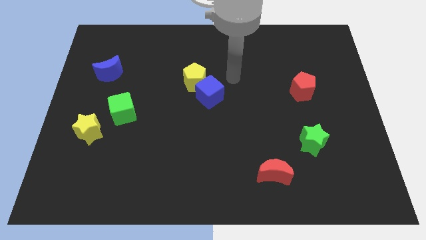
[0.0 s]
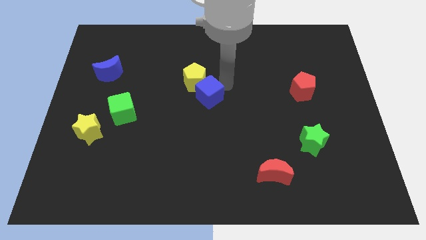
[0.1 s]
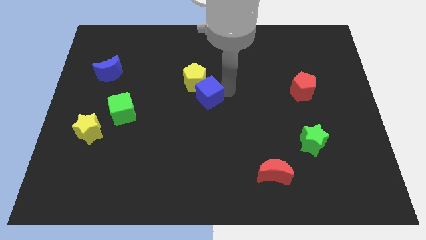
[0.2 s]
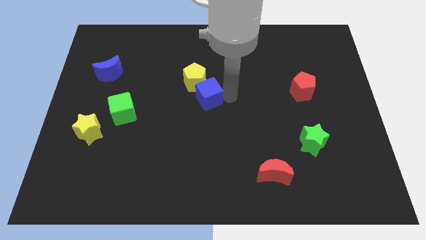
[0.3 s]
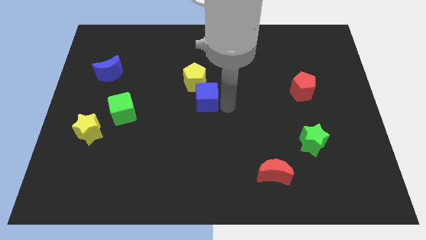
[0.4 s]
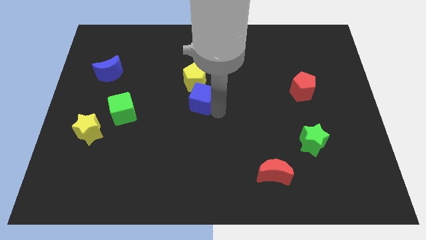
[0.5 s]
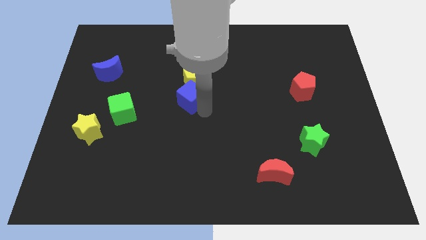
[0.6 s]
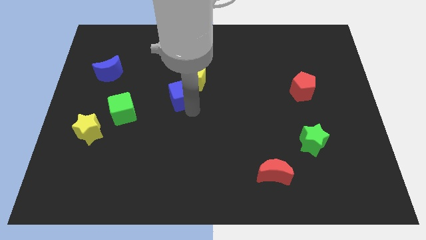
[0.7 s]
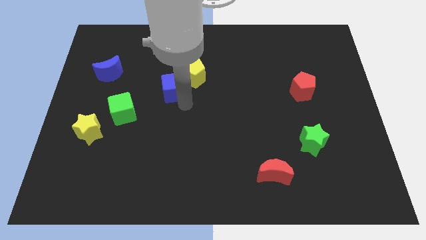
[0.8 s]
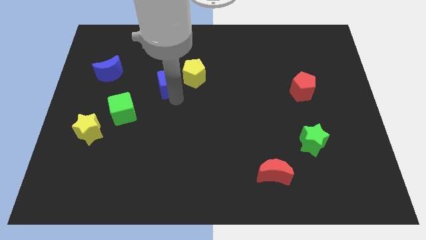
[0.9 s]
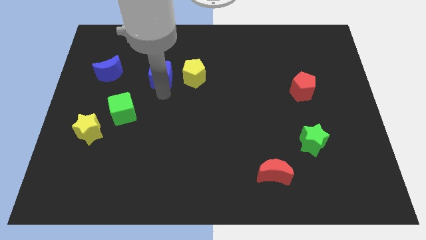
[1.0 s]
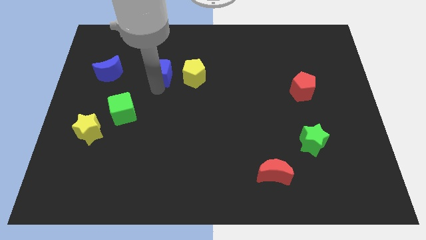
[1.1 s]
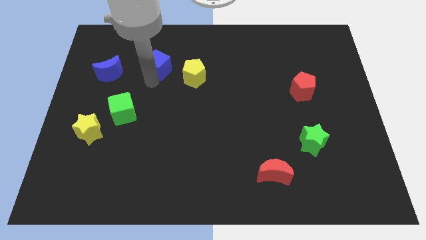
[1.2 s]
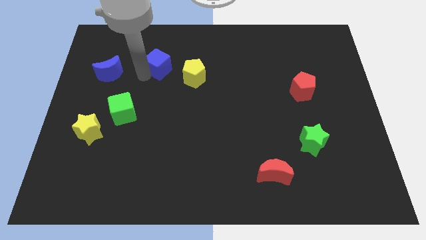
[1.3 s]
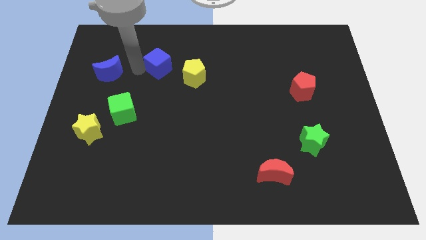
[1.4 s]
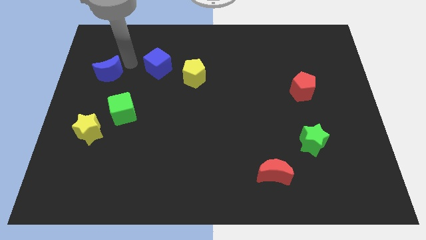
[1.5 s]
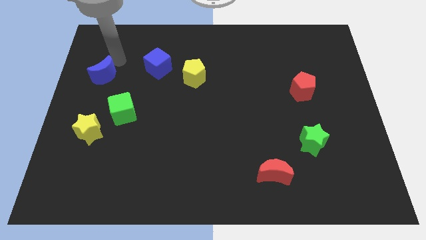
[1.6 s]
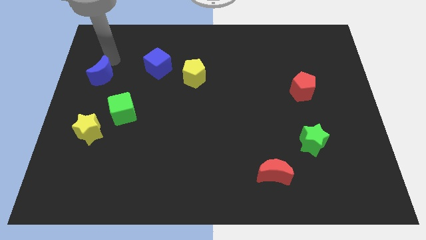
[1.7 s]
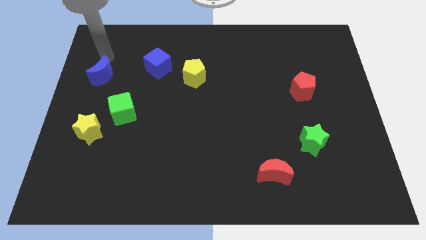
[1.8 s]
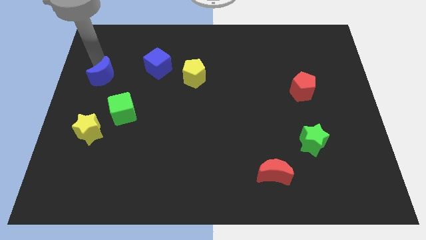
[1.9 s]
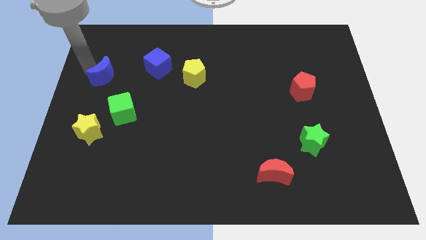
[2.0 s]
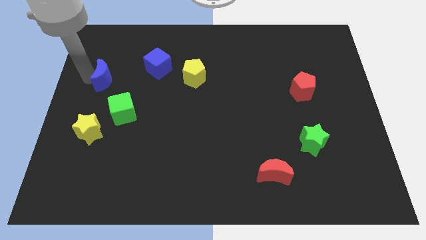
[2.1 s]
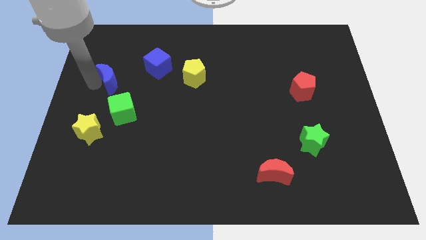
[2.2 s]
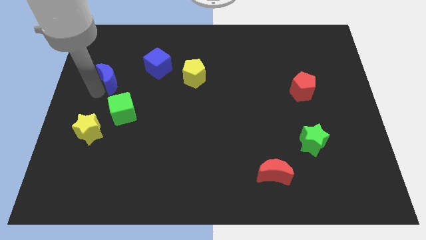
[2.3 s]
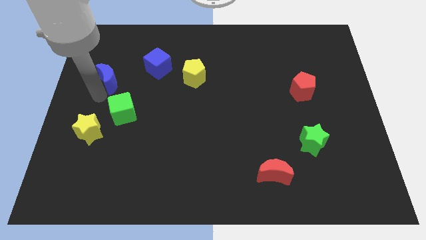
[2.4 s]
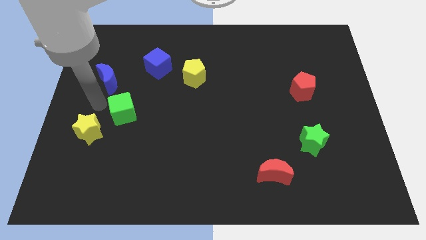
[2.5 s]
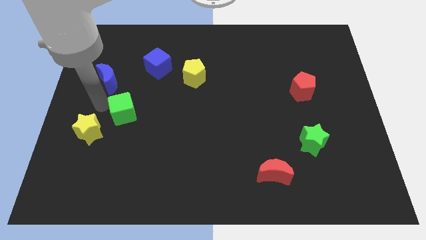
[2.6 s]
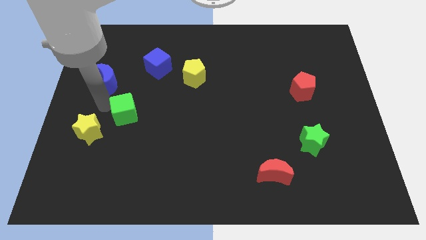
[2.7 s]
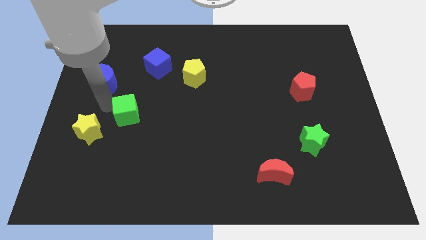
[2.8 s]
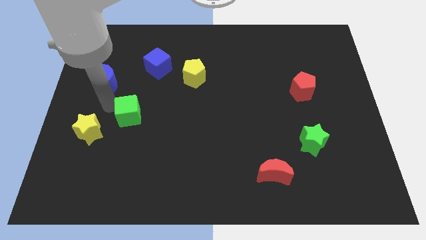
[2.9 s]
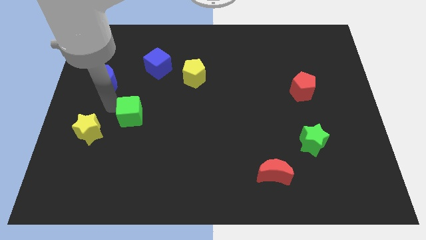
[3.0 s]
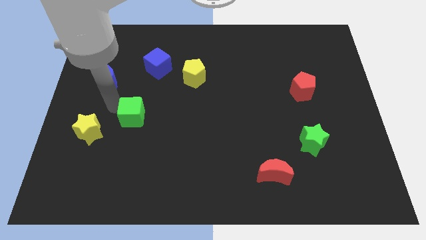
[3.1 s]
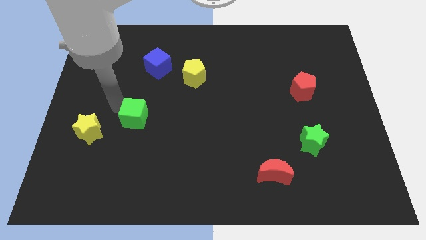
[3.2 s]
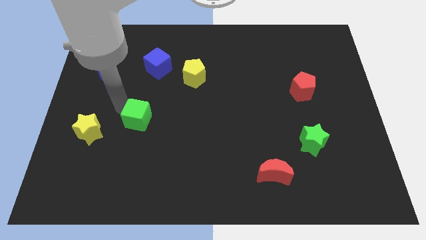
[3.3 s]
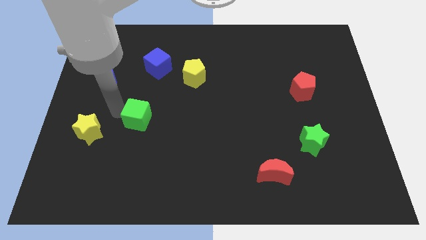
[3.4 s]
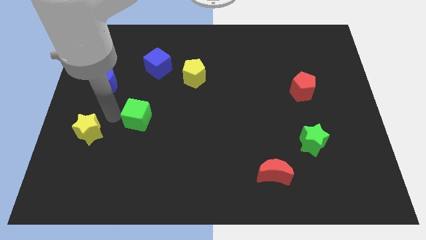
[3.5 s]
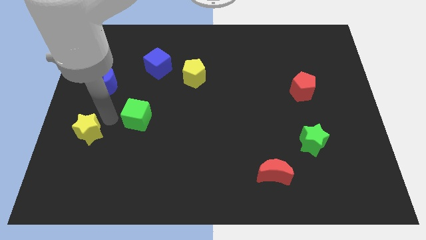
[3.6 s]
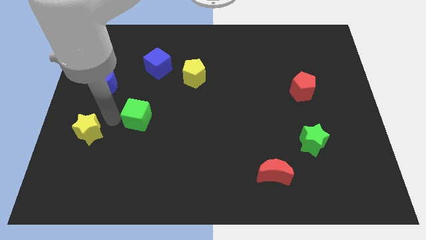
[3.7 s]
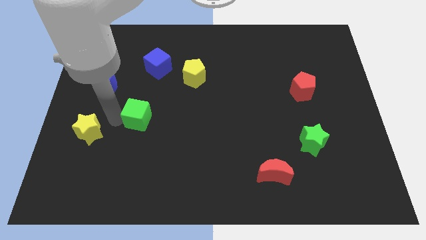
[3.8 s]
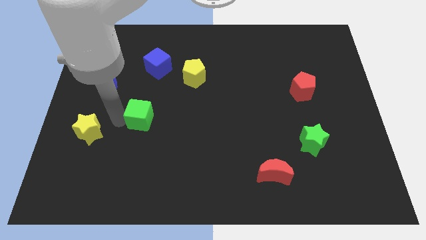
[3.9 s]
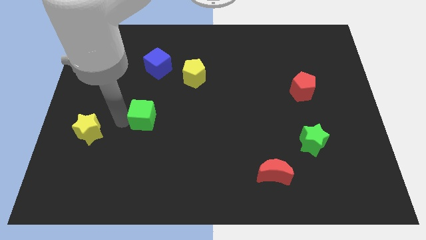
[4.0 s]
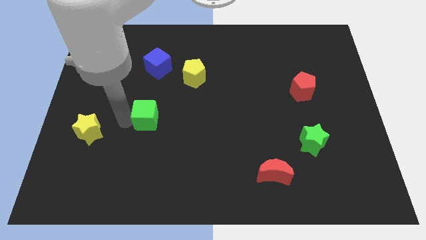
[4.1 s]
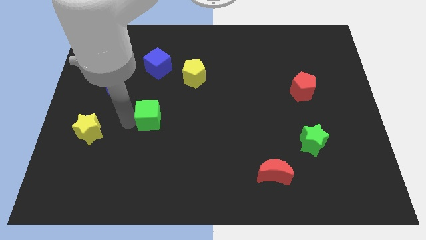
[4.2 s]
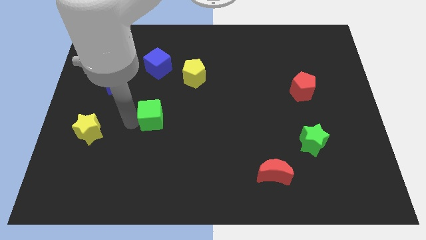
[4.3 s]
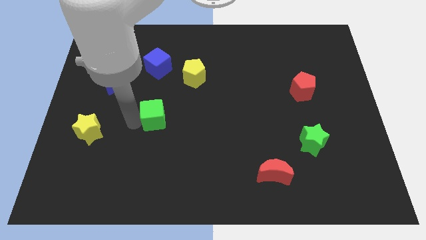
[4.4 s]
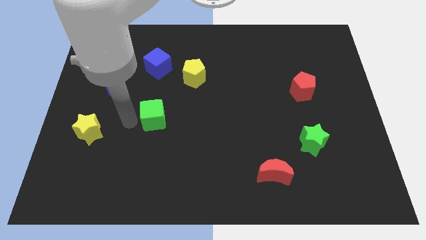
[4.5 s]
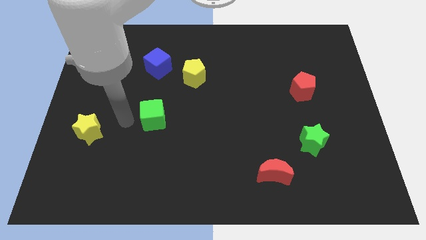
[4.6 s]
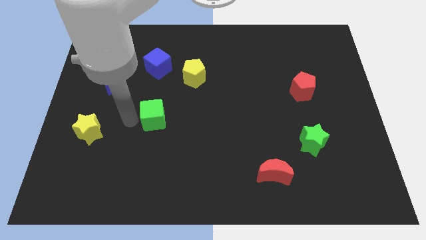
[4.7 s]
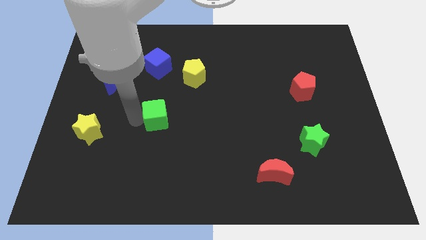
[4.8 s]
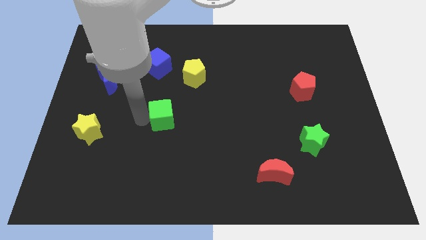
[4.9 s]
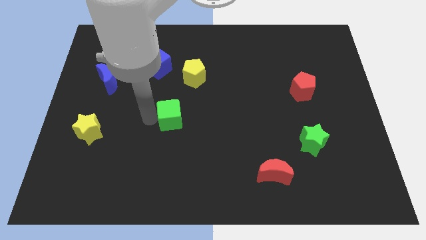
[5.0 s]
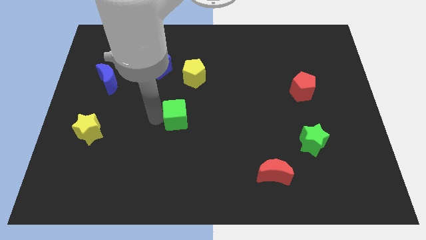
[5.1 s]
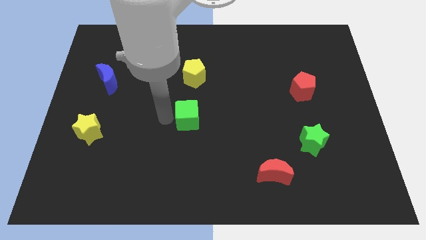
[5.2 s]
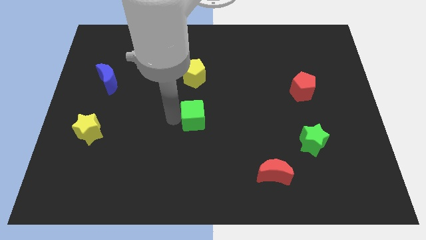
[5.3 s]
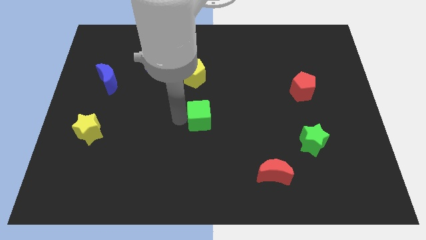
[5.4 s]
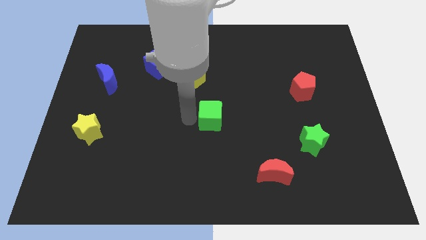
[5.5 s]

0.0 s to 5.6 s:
move the green cube right

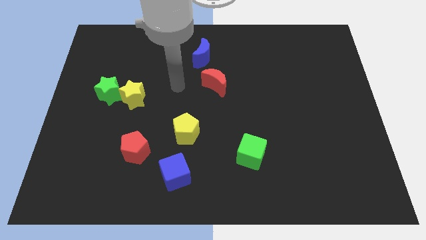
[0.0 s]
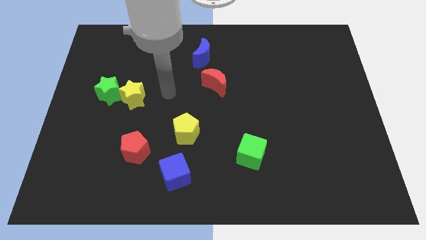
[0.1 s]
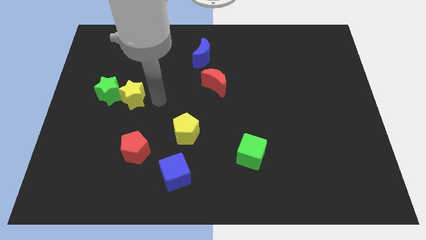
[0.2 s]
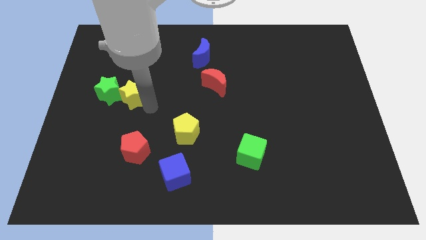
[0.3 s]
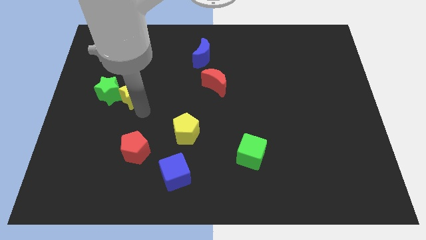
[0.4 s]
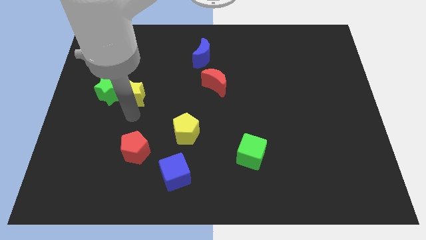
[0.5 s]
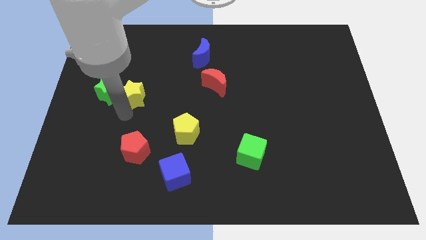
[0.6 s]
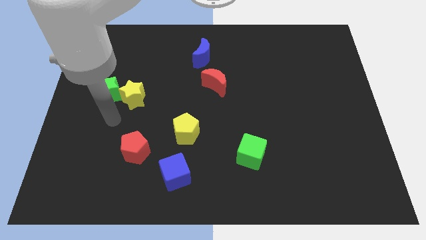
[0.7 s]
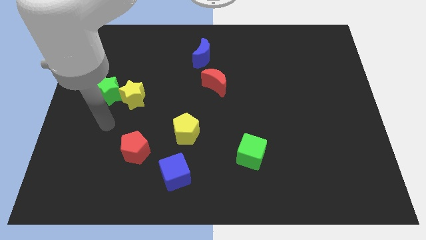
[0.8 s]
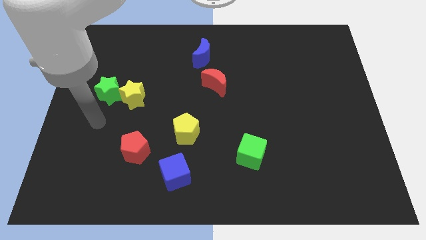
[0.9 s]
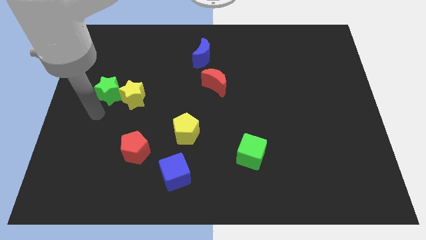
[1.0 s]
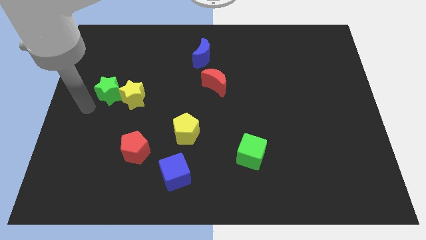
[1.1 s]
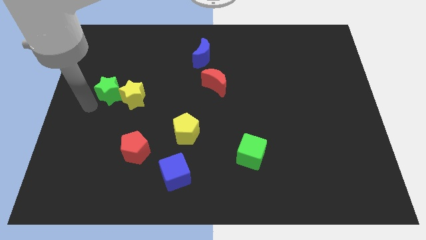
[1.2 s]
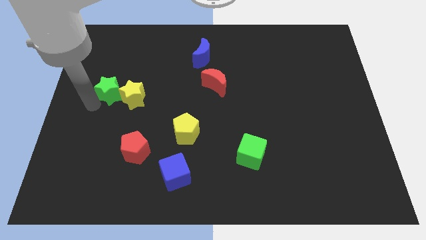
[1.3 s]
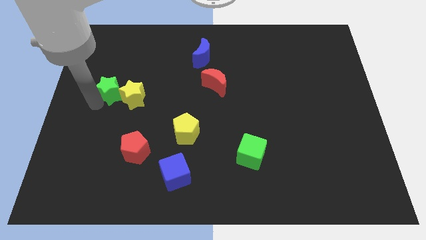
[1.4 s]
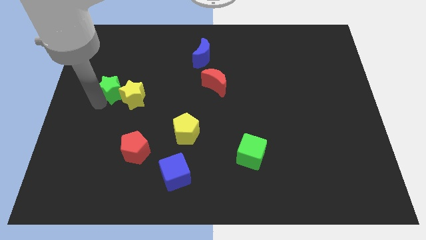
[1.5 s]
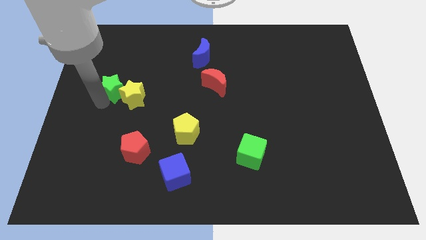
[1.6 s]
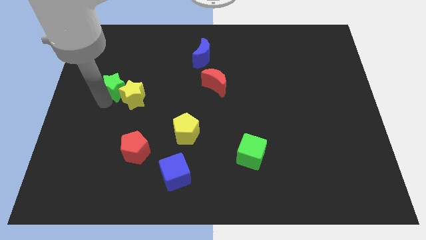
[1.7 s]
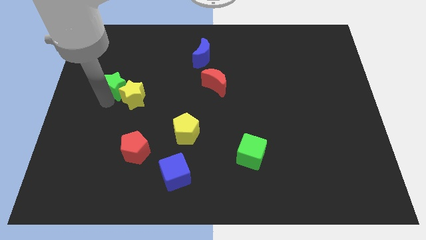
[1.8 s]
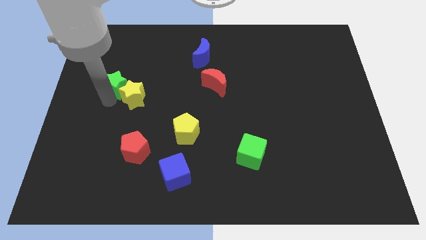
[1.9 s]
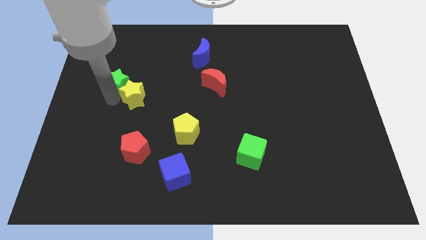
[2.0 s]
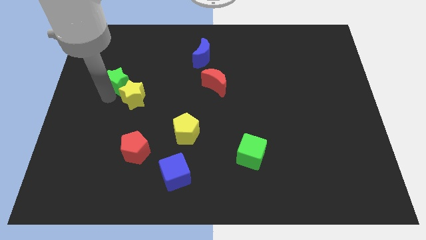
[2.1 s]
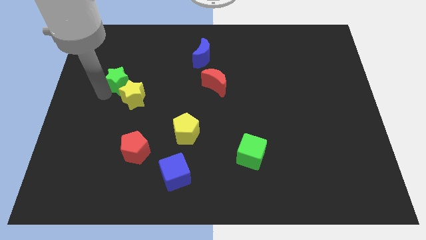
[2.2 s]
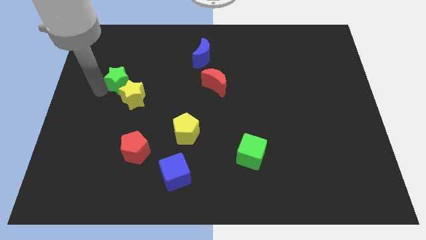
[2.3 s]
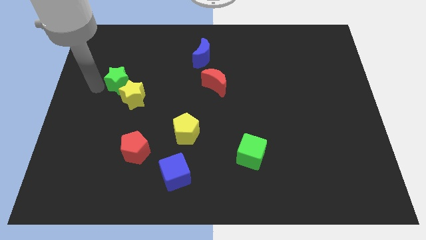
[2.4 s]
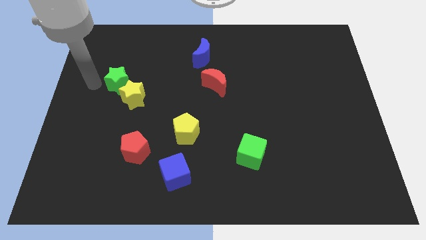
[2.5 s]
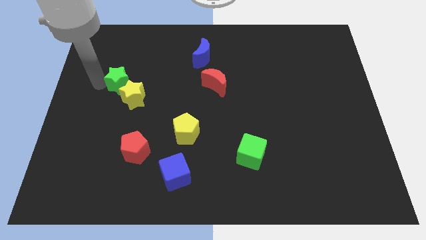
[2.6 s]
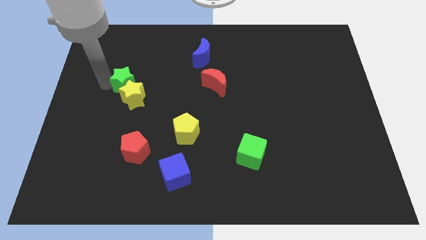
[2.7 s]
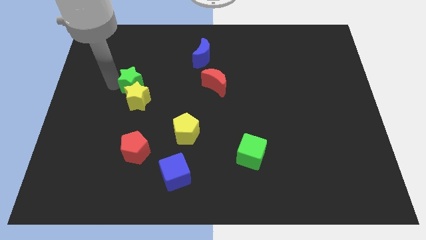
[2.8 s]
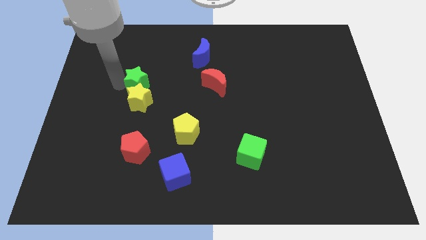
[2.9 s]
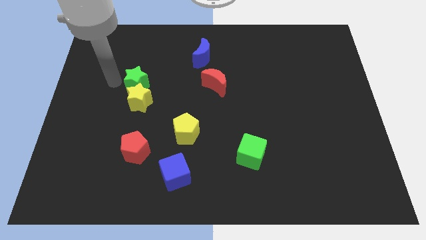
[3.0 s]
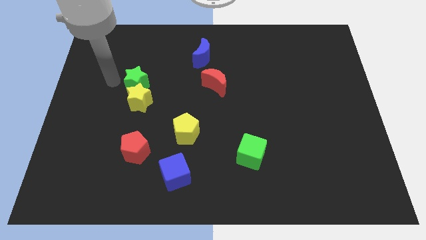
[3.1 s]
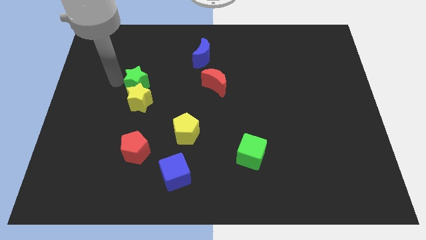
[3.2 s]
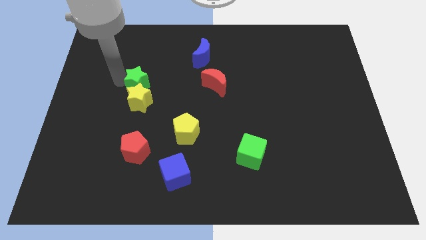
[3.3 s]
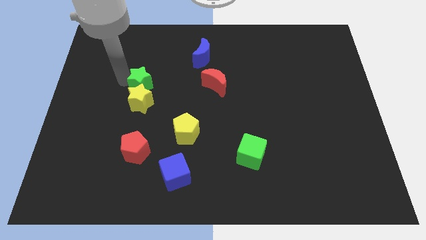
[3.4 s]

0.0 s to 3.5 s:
push the green star a little bit right
